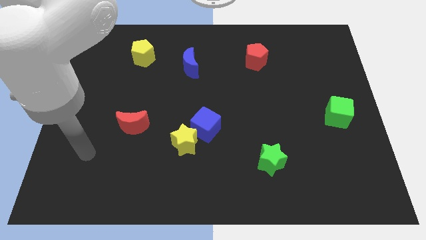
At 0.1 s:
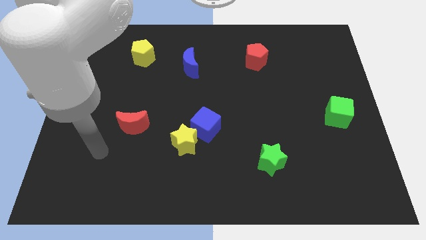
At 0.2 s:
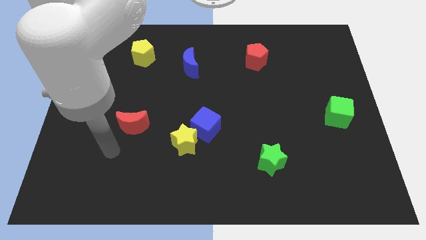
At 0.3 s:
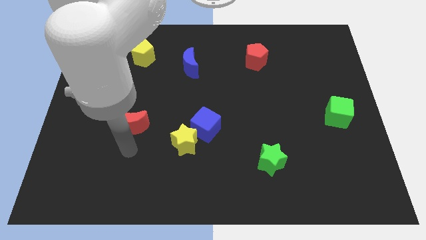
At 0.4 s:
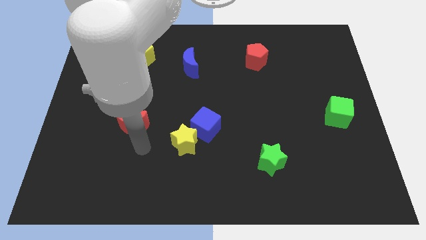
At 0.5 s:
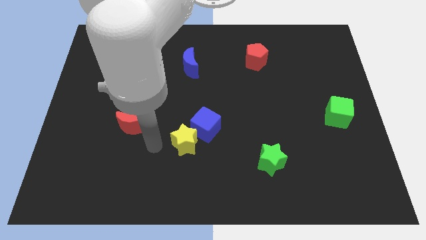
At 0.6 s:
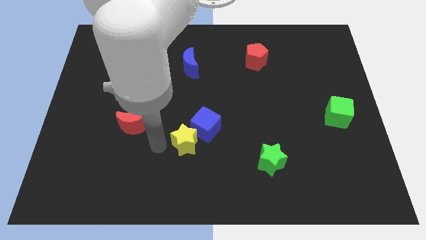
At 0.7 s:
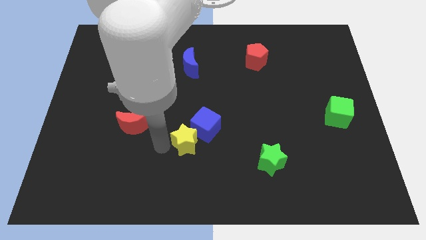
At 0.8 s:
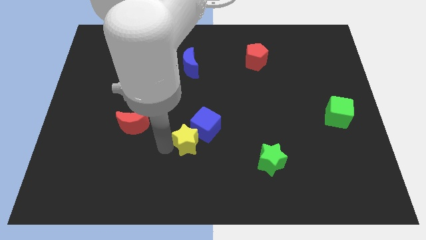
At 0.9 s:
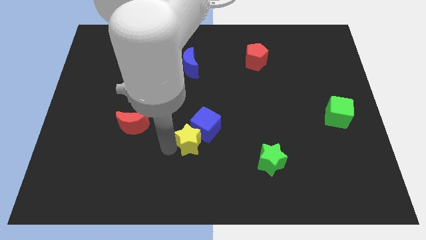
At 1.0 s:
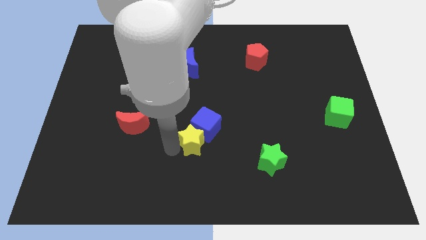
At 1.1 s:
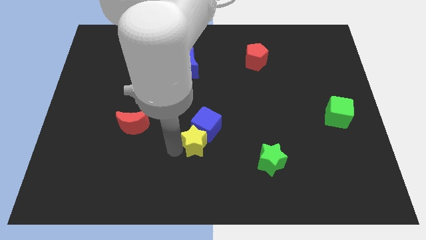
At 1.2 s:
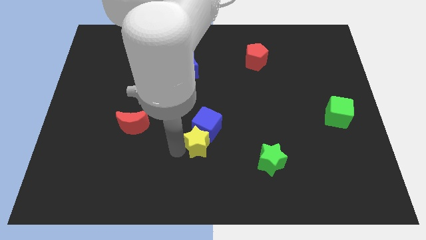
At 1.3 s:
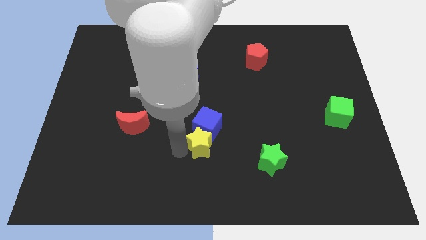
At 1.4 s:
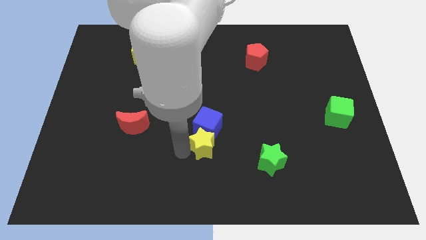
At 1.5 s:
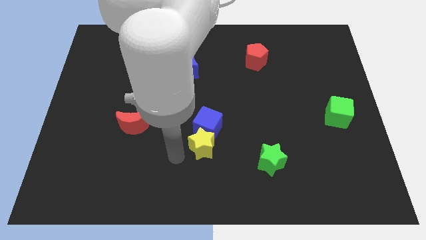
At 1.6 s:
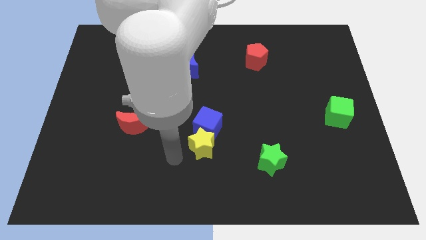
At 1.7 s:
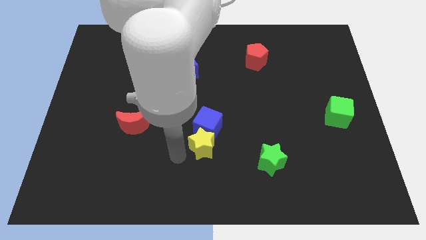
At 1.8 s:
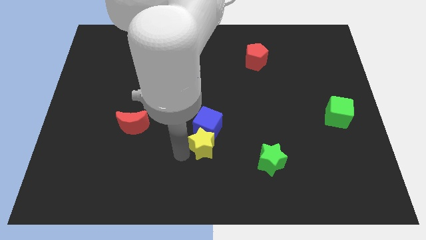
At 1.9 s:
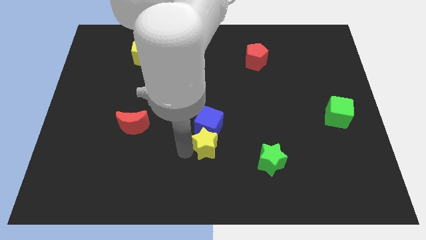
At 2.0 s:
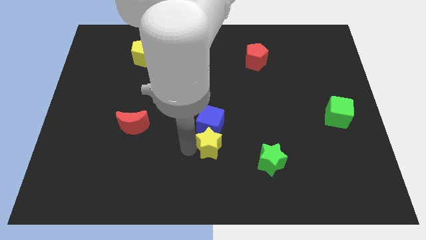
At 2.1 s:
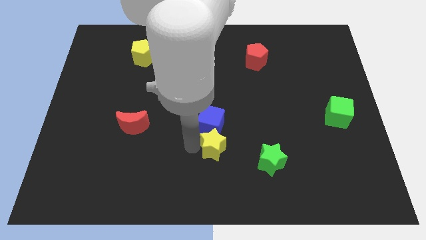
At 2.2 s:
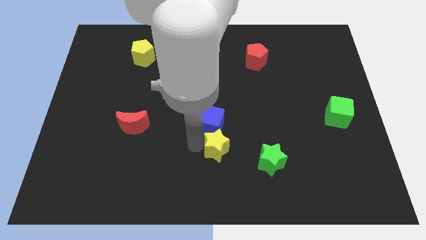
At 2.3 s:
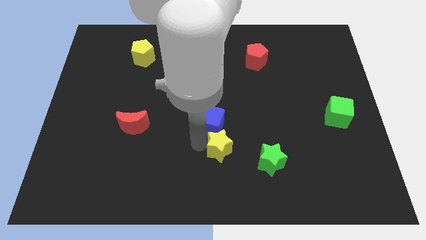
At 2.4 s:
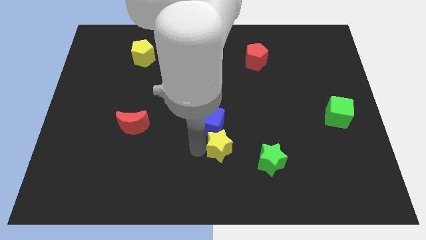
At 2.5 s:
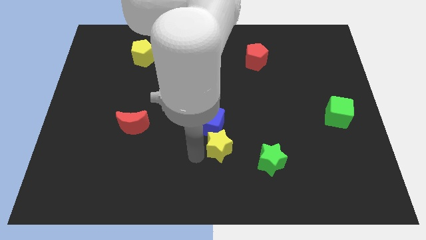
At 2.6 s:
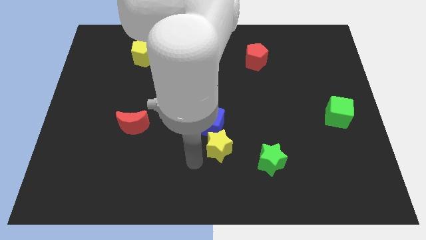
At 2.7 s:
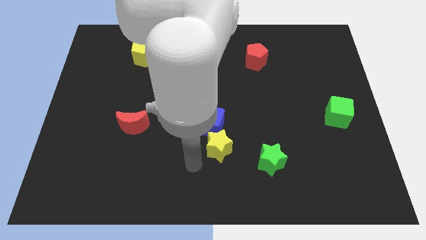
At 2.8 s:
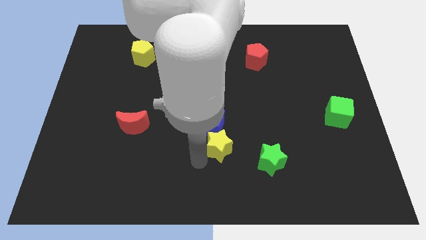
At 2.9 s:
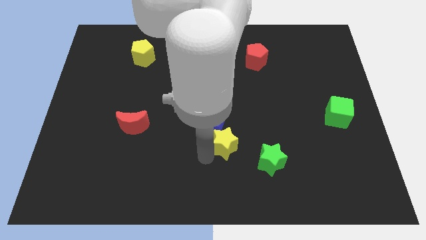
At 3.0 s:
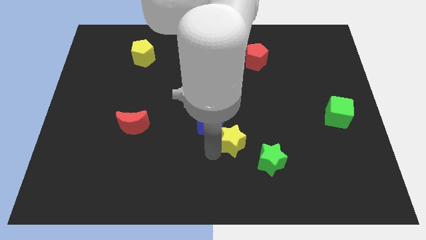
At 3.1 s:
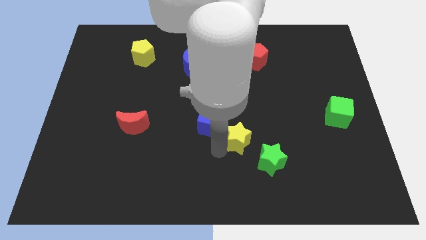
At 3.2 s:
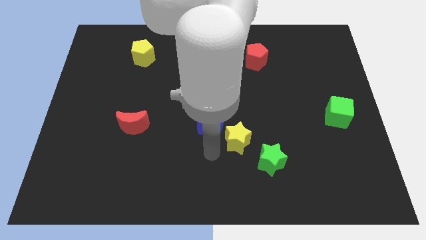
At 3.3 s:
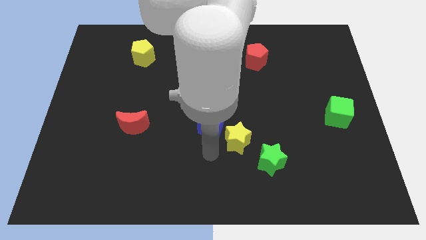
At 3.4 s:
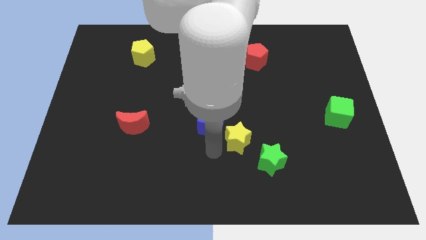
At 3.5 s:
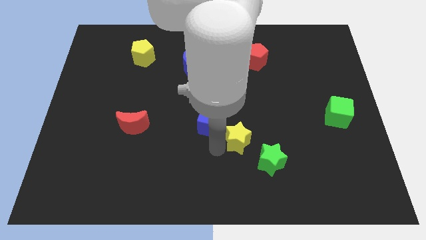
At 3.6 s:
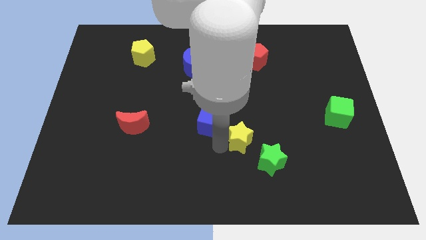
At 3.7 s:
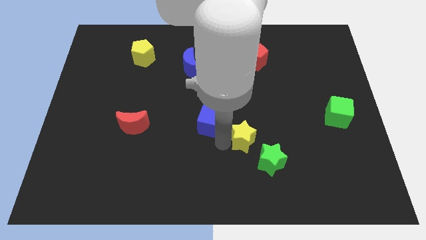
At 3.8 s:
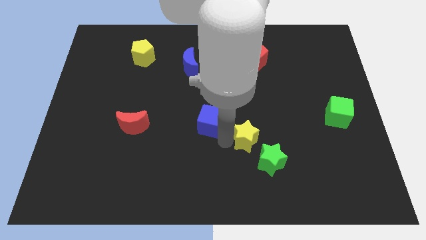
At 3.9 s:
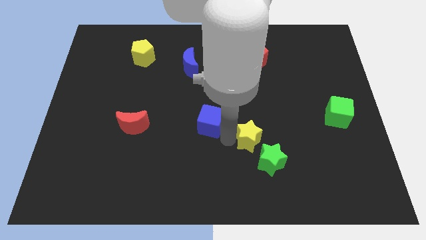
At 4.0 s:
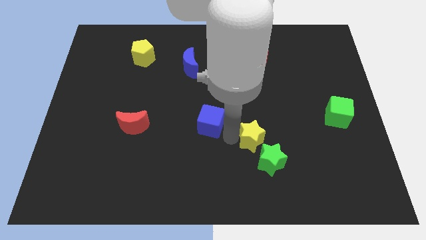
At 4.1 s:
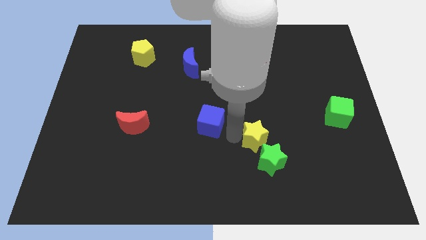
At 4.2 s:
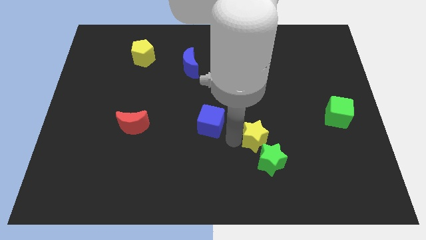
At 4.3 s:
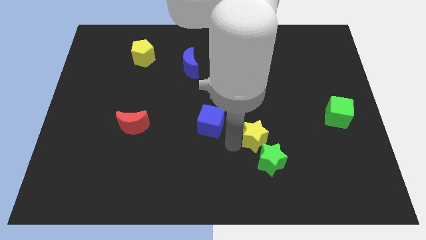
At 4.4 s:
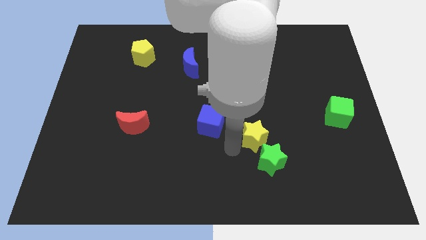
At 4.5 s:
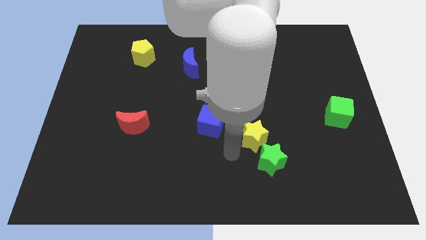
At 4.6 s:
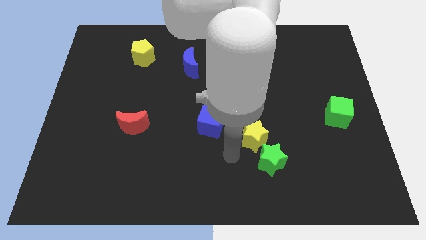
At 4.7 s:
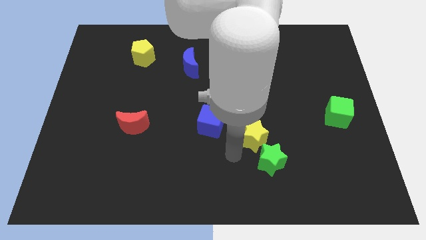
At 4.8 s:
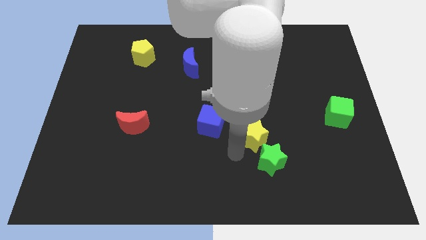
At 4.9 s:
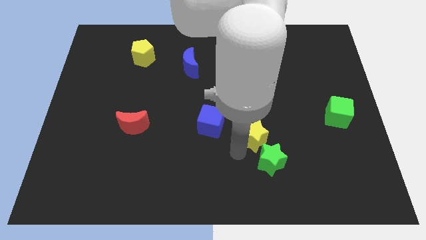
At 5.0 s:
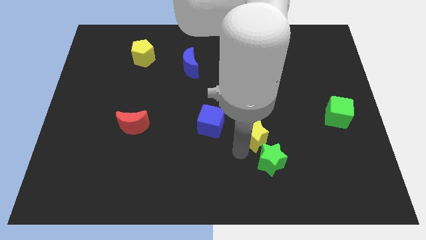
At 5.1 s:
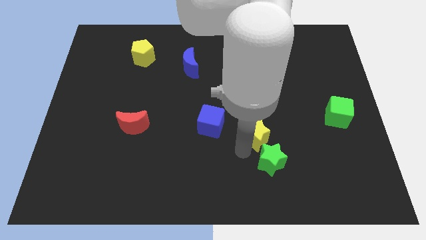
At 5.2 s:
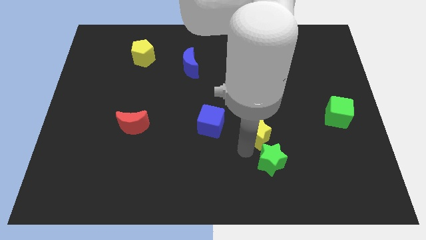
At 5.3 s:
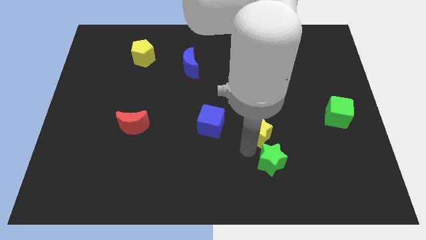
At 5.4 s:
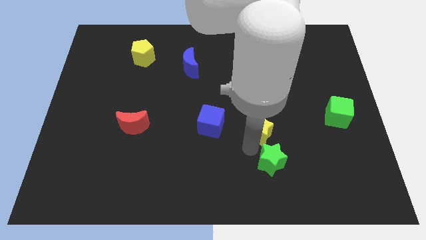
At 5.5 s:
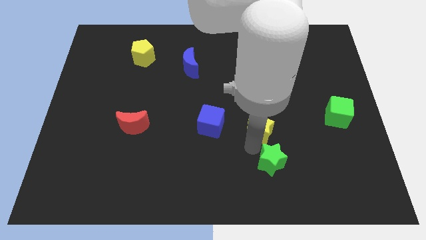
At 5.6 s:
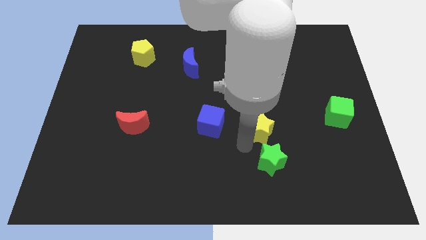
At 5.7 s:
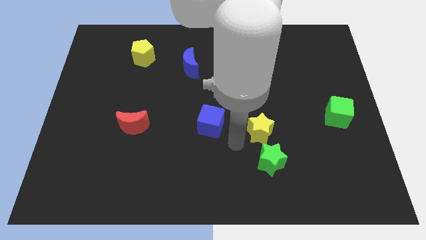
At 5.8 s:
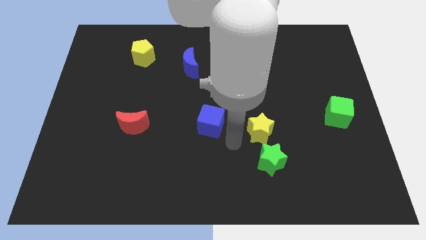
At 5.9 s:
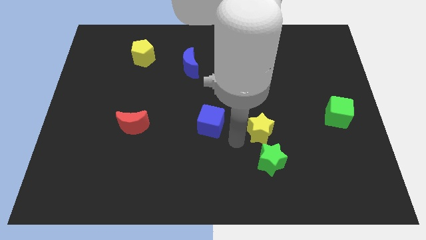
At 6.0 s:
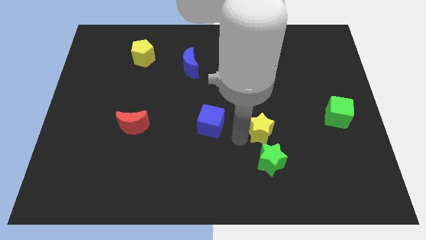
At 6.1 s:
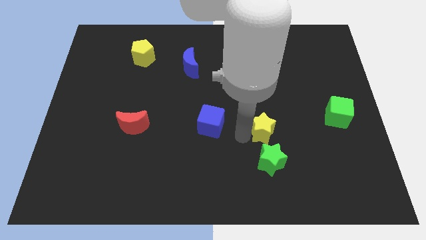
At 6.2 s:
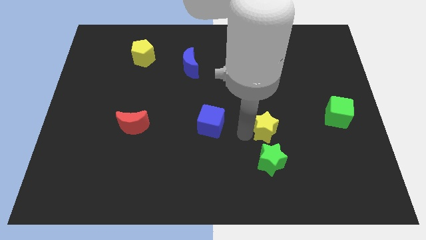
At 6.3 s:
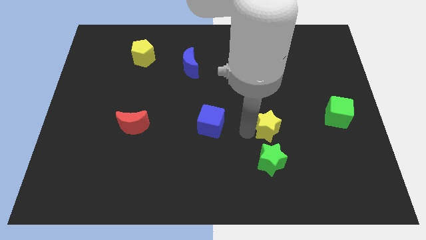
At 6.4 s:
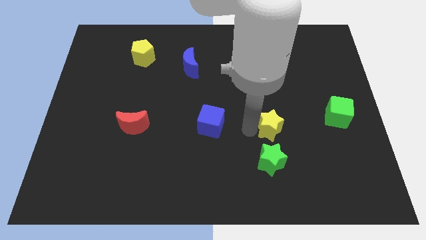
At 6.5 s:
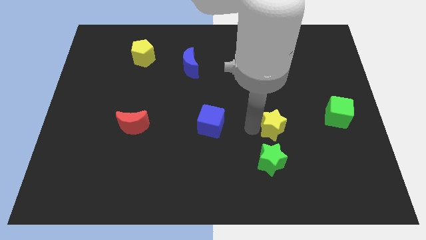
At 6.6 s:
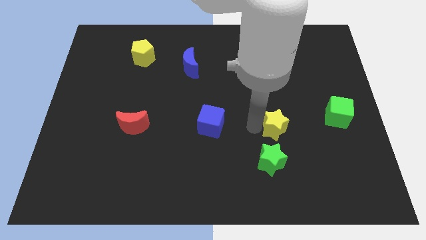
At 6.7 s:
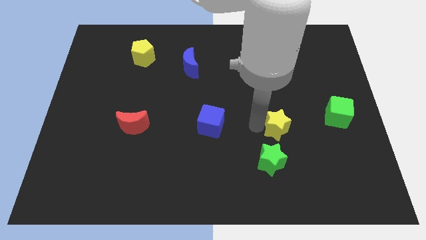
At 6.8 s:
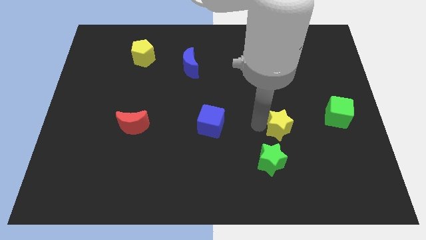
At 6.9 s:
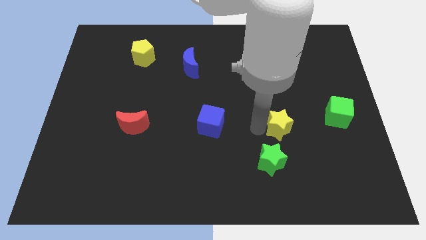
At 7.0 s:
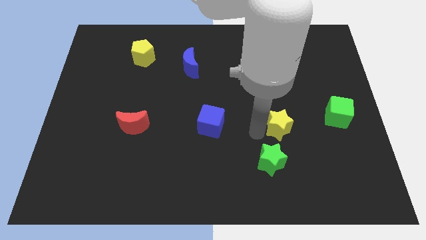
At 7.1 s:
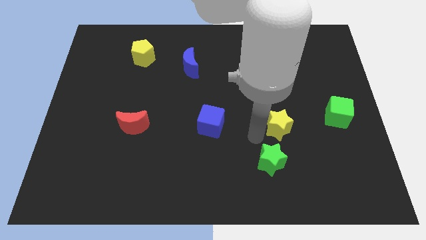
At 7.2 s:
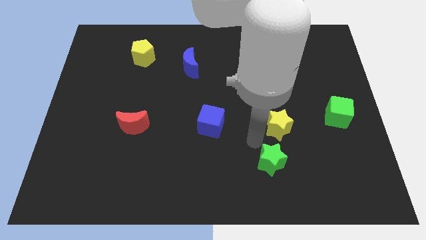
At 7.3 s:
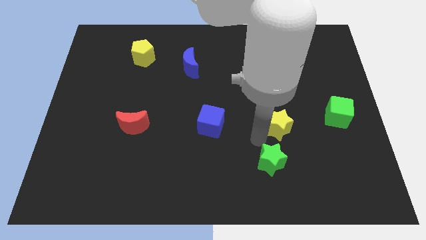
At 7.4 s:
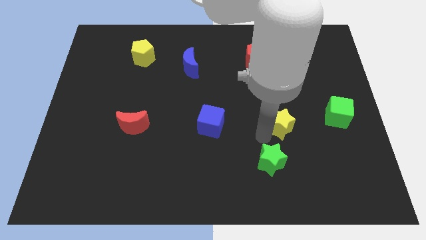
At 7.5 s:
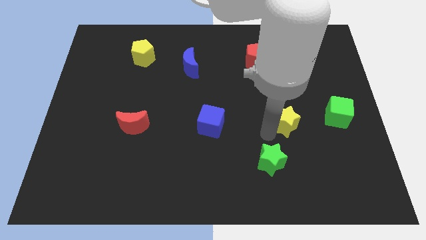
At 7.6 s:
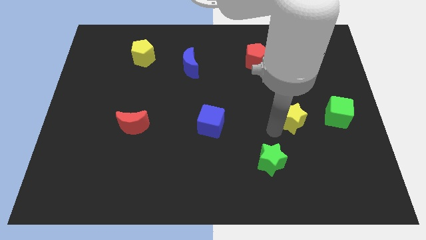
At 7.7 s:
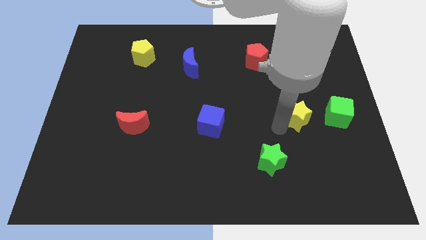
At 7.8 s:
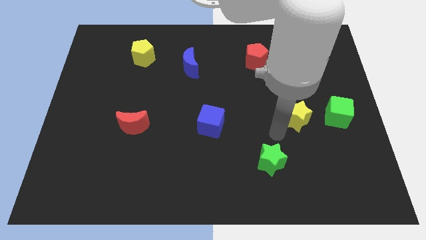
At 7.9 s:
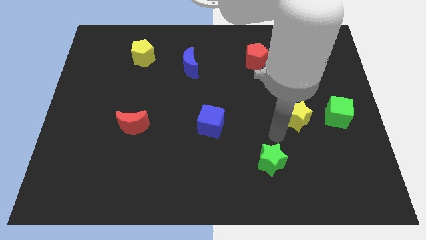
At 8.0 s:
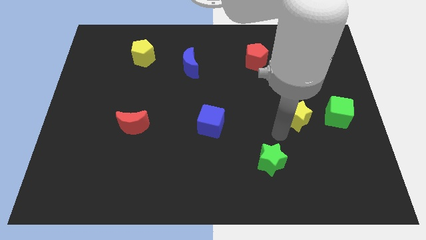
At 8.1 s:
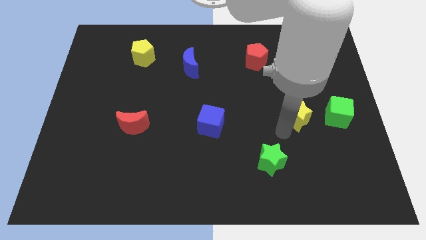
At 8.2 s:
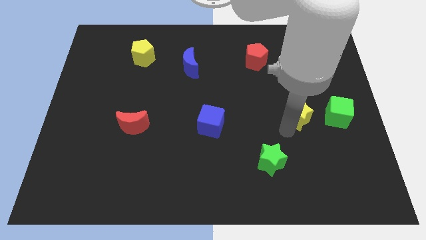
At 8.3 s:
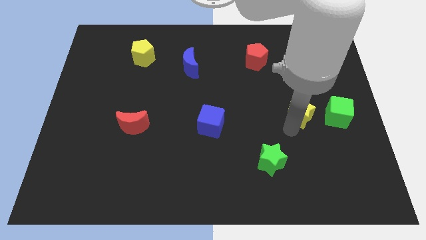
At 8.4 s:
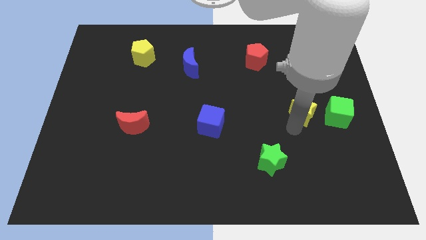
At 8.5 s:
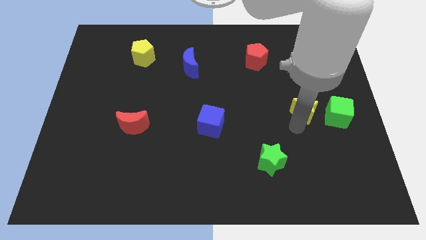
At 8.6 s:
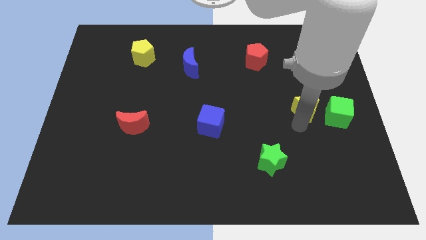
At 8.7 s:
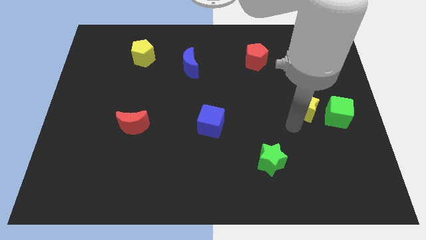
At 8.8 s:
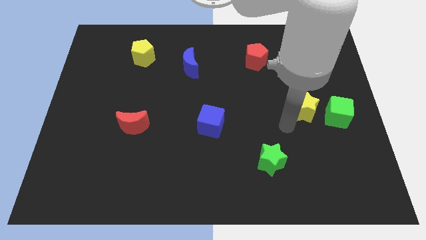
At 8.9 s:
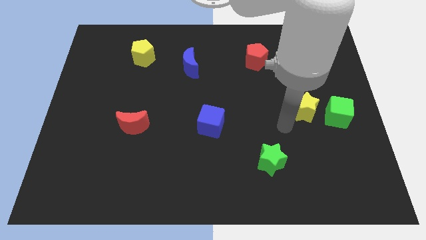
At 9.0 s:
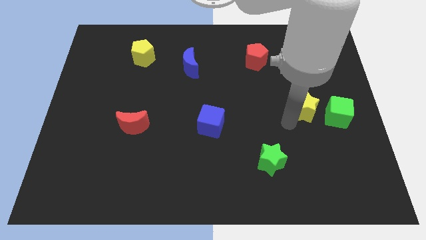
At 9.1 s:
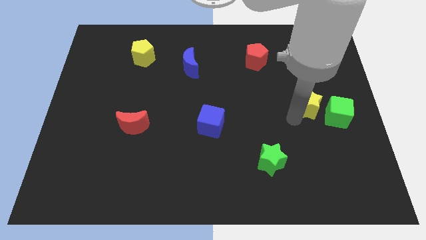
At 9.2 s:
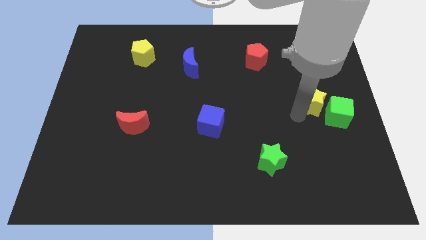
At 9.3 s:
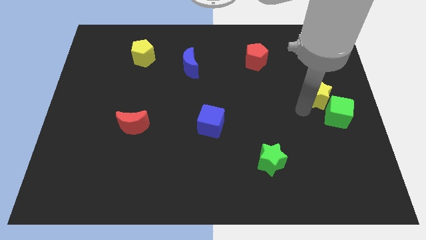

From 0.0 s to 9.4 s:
move the yellow star to the right side of the board
